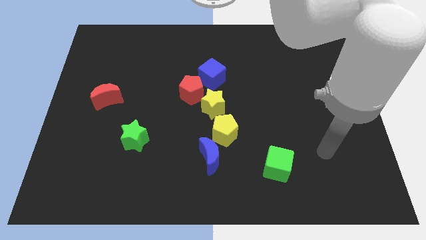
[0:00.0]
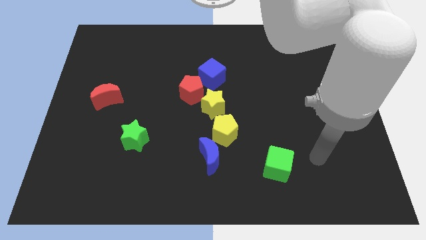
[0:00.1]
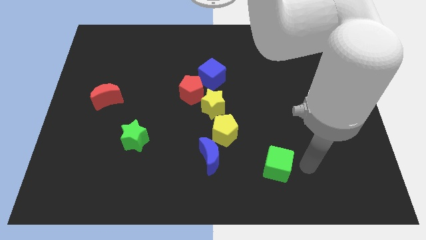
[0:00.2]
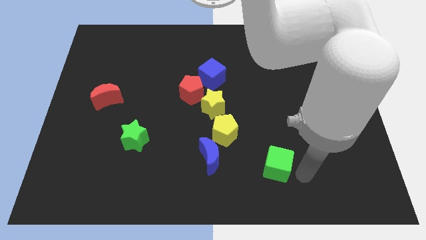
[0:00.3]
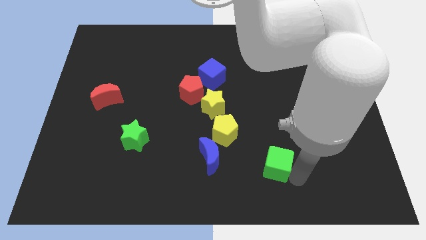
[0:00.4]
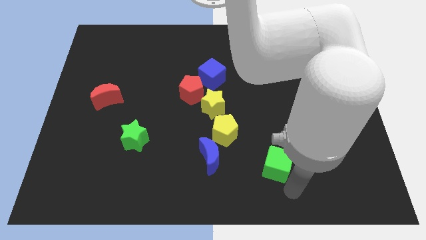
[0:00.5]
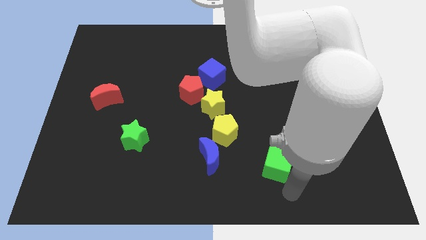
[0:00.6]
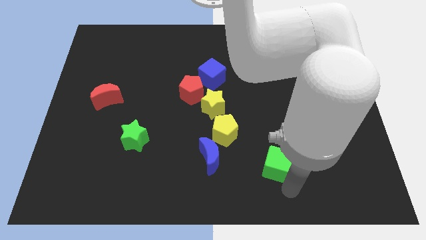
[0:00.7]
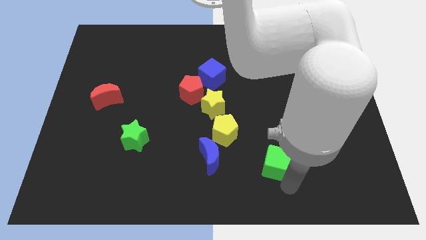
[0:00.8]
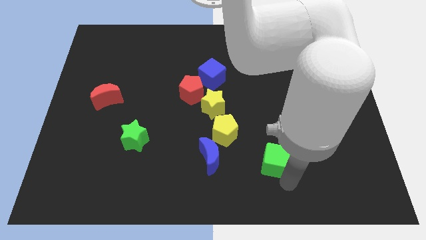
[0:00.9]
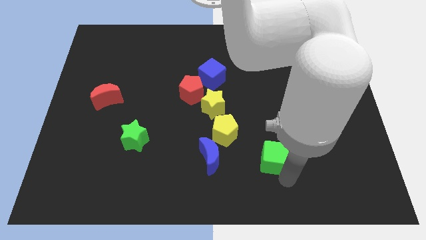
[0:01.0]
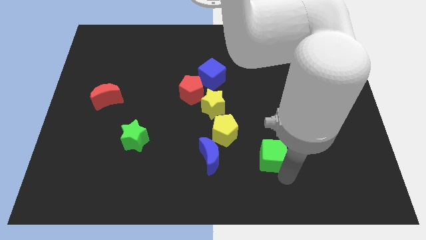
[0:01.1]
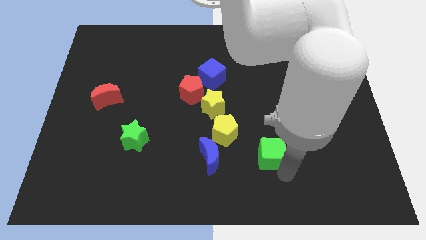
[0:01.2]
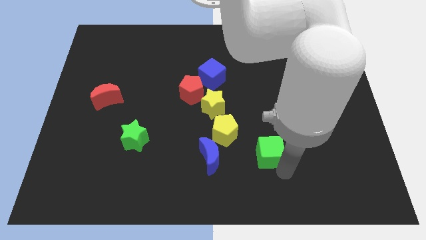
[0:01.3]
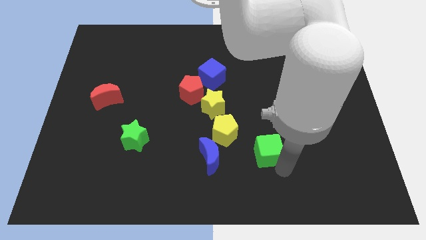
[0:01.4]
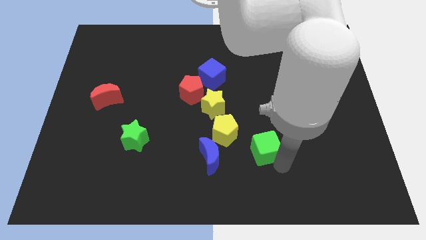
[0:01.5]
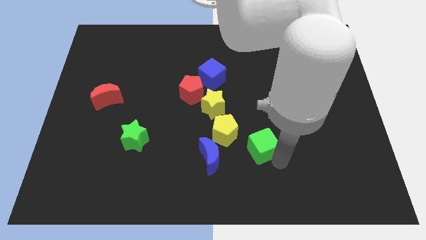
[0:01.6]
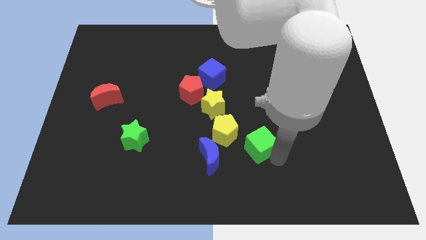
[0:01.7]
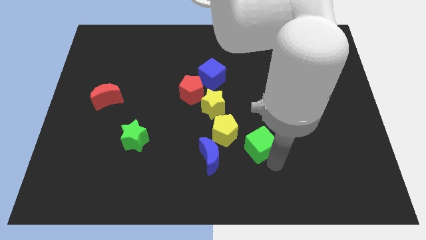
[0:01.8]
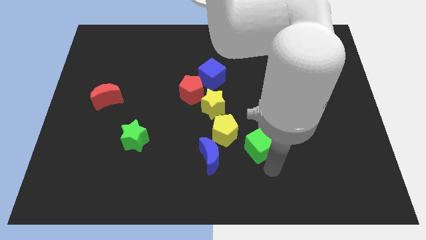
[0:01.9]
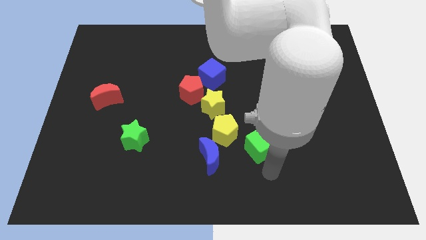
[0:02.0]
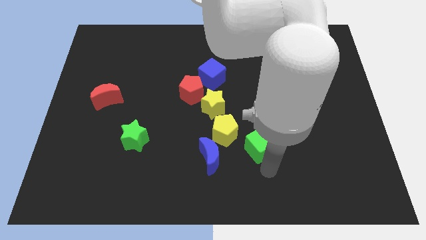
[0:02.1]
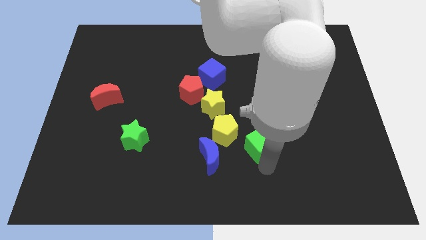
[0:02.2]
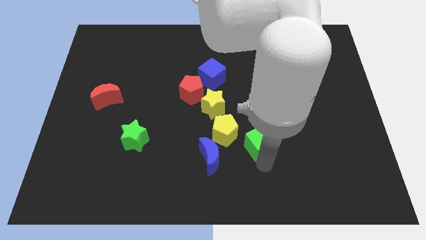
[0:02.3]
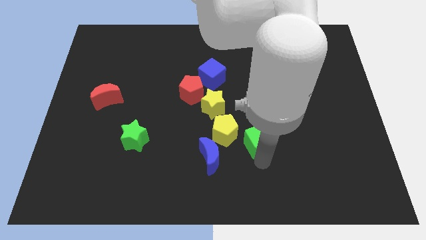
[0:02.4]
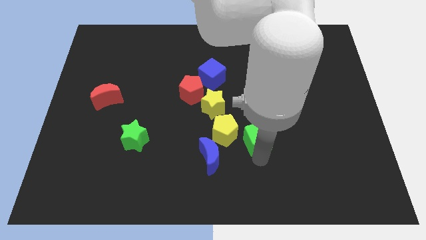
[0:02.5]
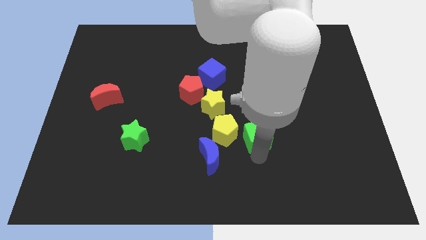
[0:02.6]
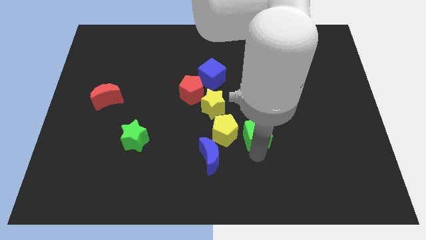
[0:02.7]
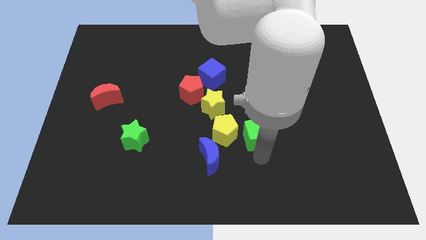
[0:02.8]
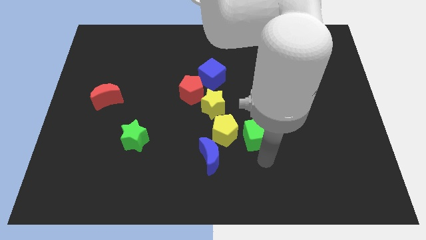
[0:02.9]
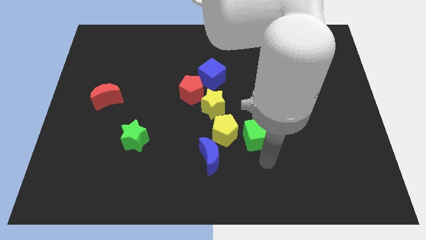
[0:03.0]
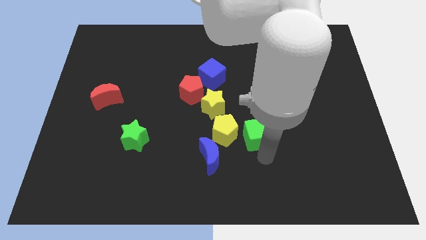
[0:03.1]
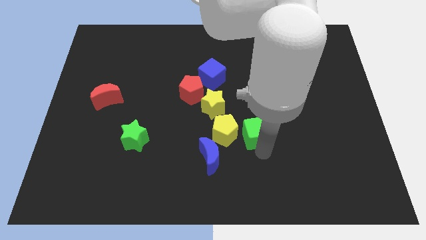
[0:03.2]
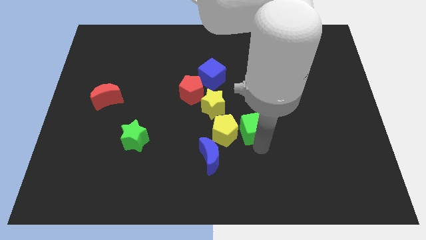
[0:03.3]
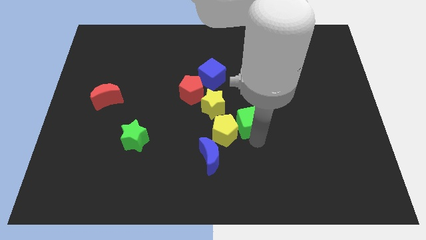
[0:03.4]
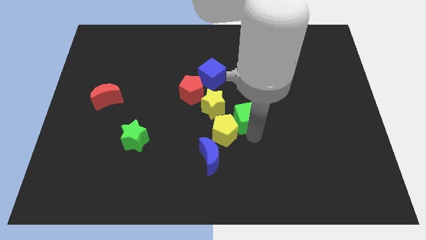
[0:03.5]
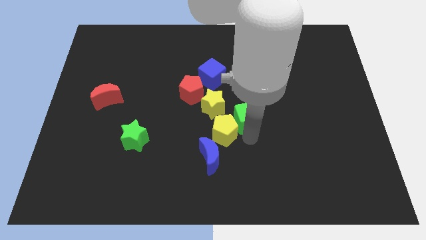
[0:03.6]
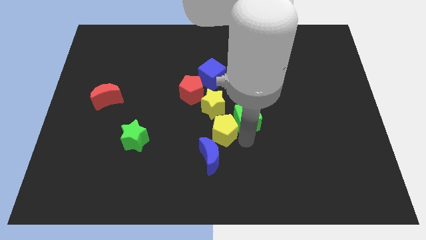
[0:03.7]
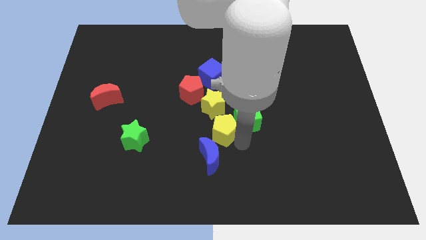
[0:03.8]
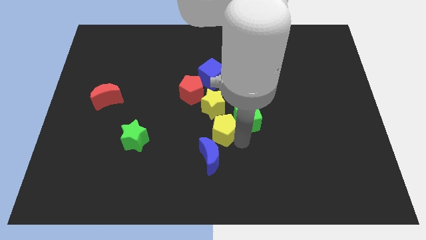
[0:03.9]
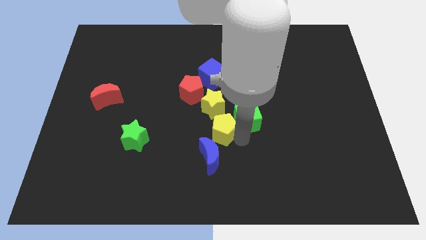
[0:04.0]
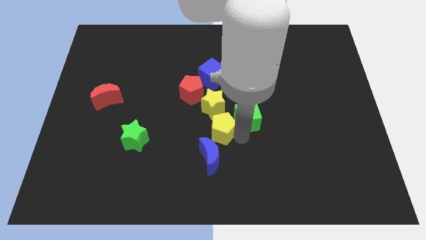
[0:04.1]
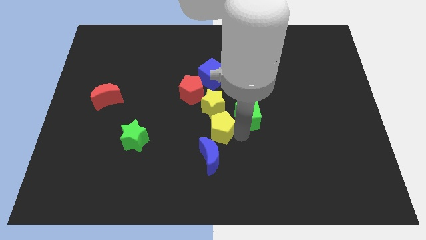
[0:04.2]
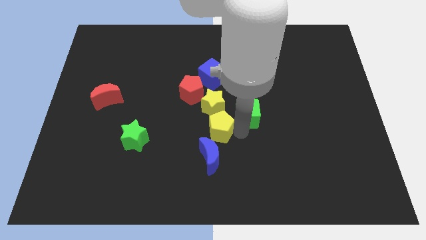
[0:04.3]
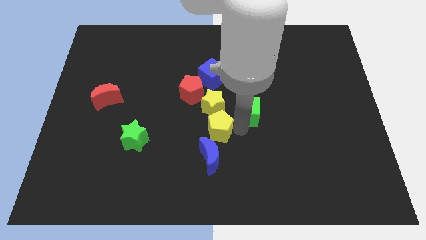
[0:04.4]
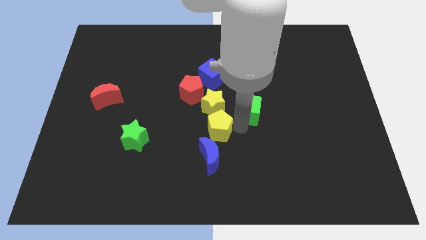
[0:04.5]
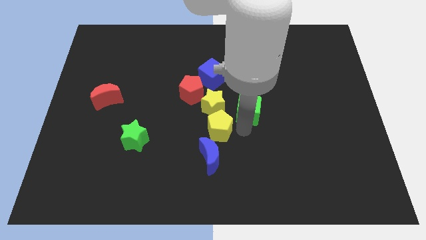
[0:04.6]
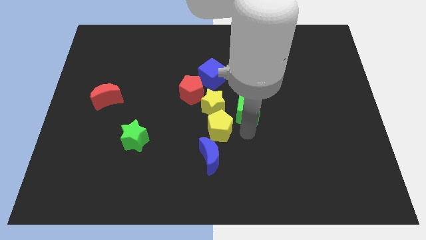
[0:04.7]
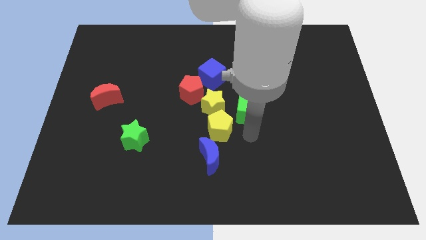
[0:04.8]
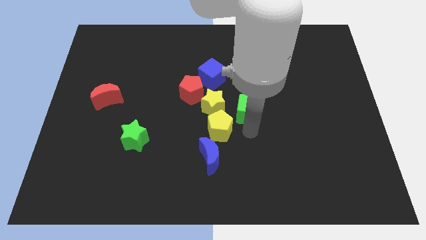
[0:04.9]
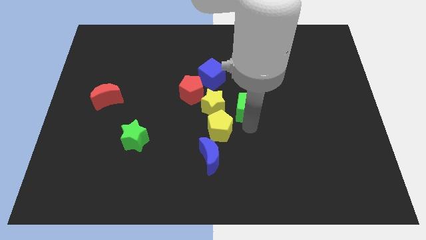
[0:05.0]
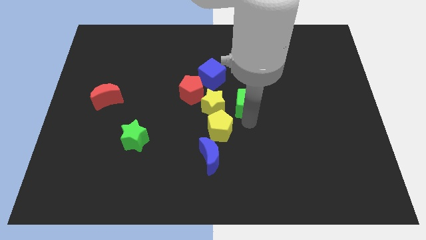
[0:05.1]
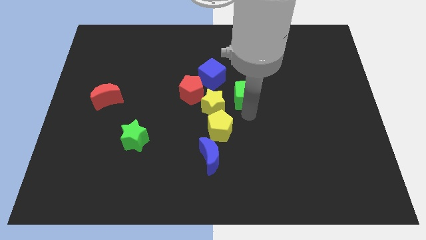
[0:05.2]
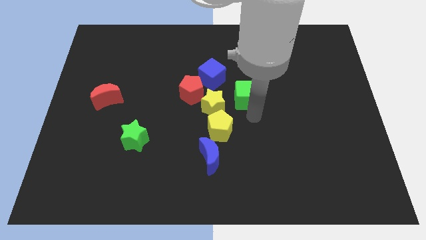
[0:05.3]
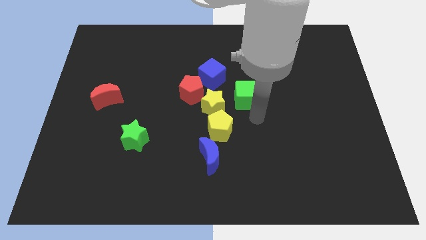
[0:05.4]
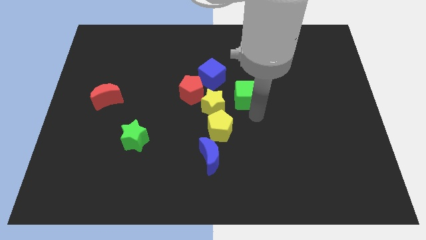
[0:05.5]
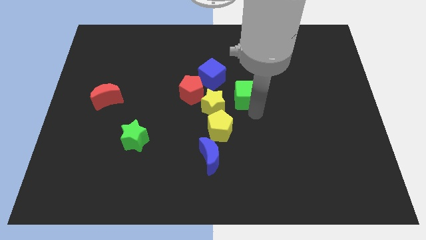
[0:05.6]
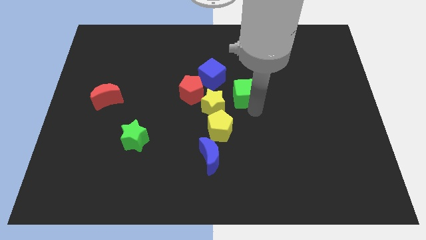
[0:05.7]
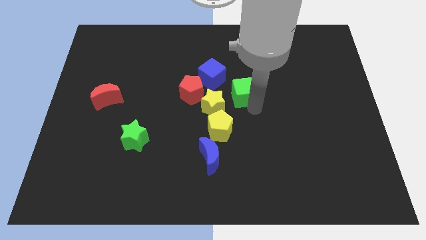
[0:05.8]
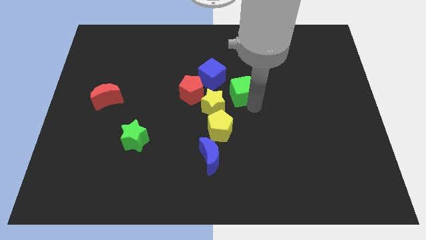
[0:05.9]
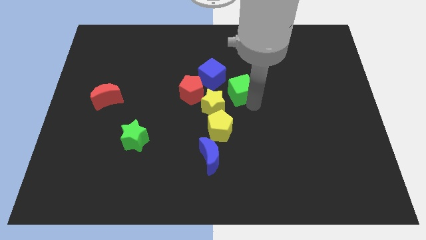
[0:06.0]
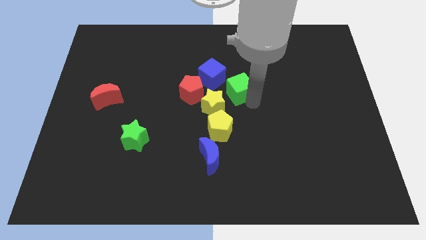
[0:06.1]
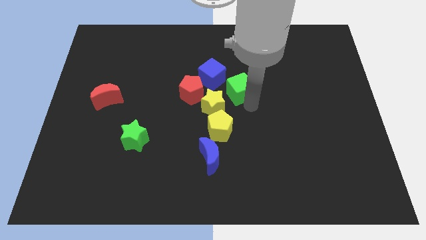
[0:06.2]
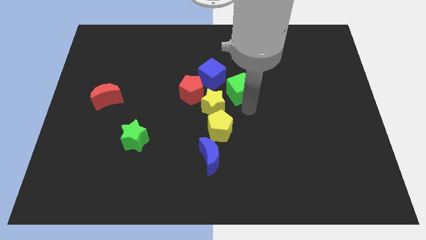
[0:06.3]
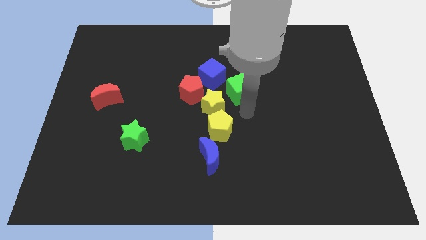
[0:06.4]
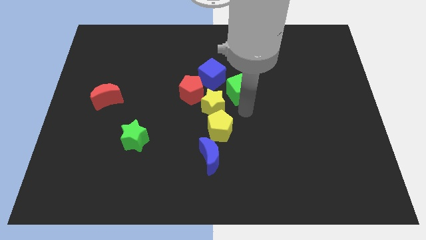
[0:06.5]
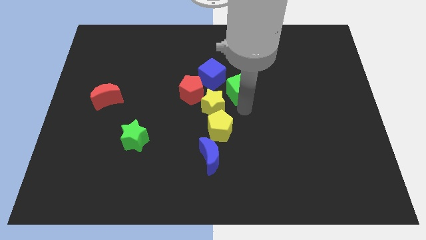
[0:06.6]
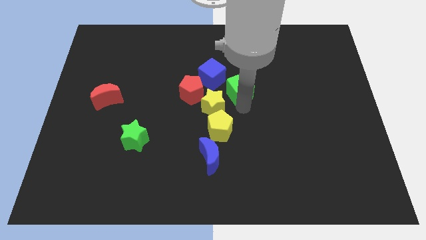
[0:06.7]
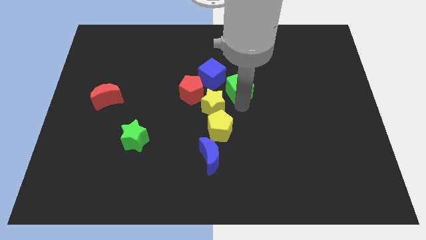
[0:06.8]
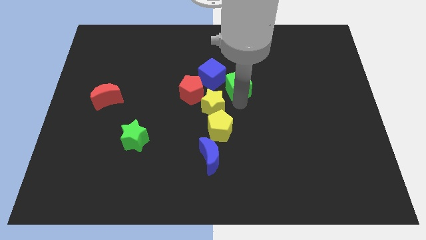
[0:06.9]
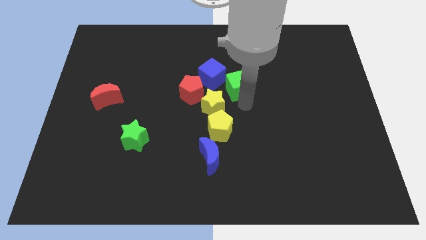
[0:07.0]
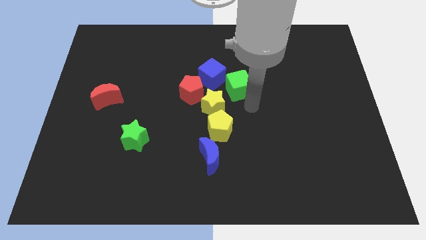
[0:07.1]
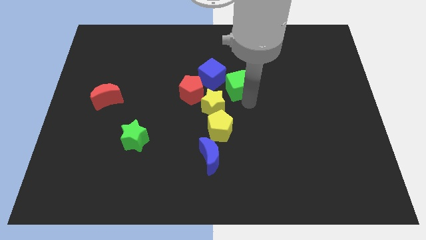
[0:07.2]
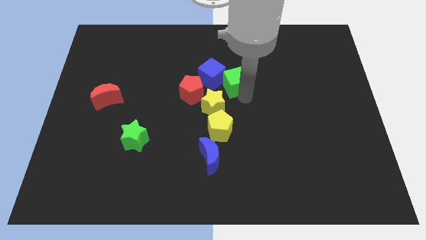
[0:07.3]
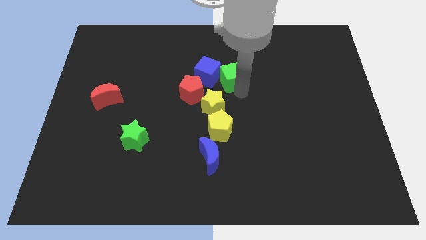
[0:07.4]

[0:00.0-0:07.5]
slide the green cube to the top right side of the red pentagon
